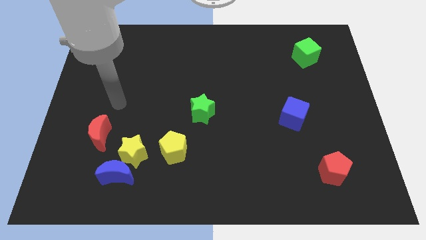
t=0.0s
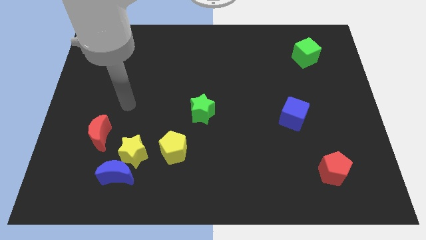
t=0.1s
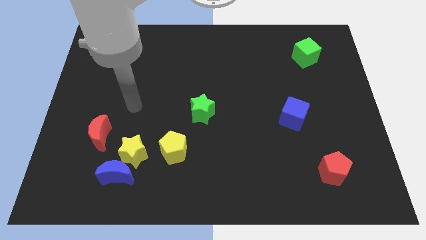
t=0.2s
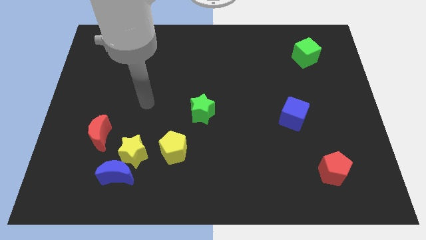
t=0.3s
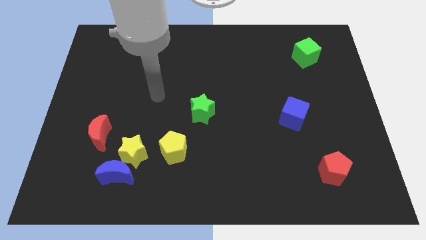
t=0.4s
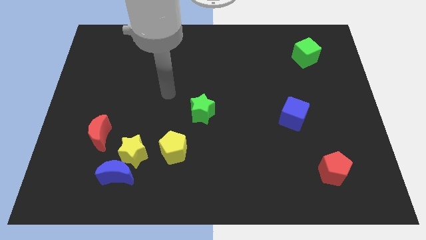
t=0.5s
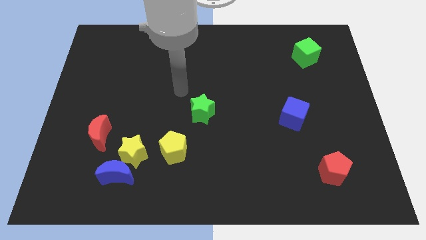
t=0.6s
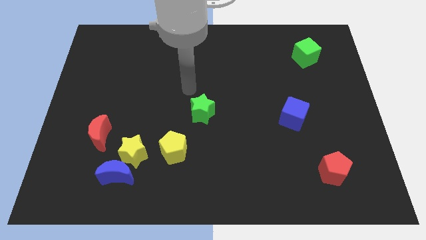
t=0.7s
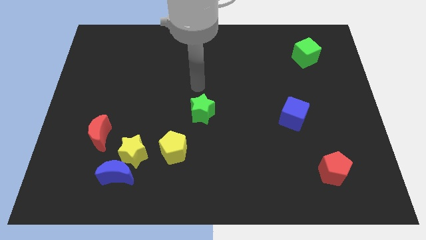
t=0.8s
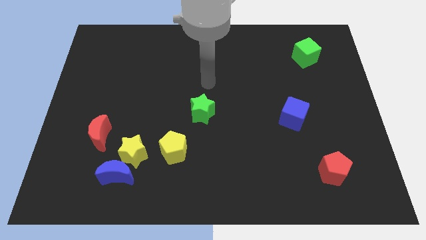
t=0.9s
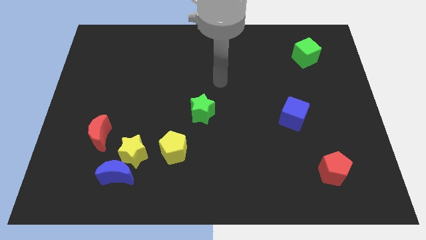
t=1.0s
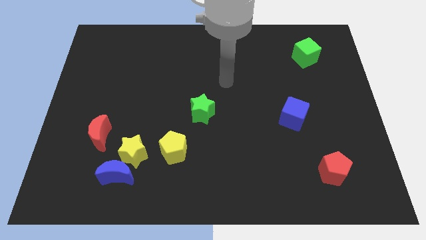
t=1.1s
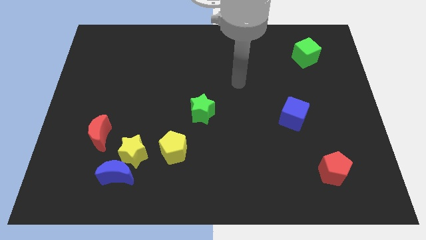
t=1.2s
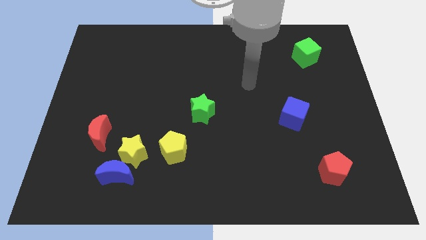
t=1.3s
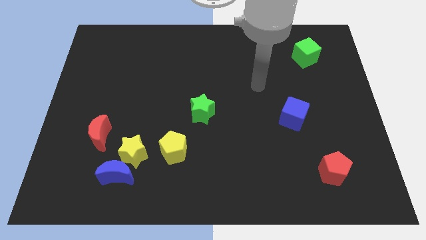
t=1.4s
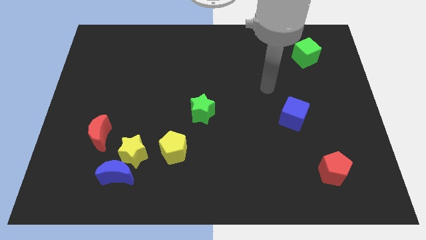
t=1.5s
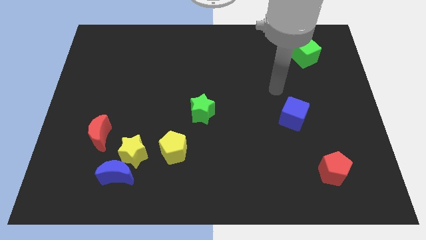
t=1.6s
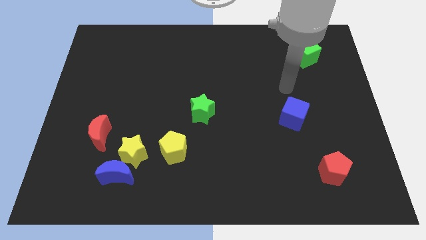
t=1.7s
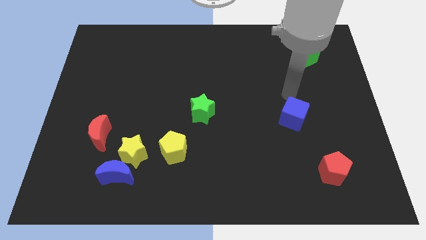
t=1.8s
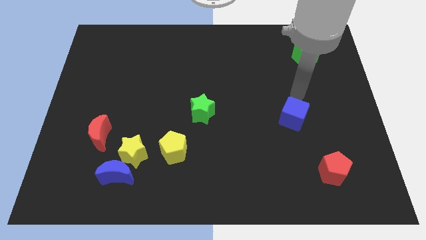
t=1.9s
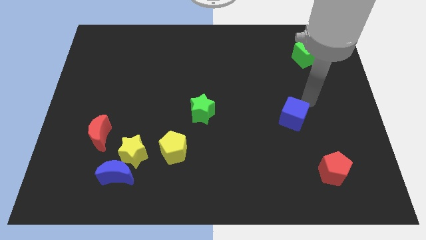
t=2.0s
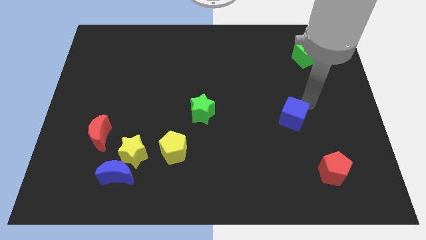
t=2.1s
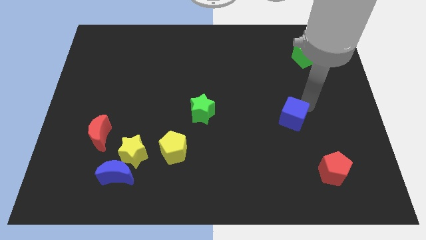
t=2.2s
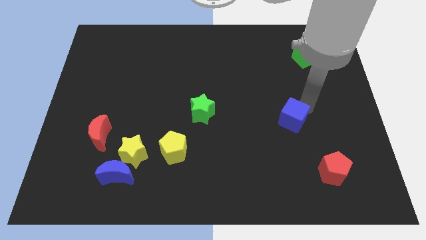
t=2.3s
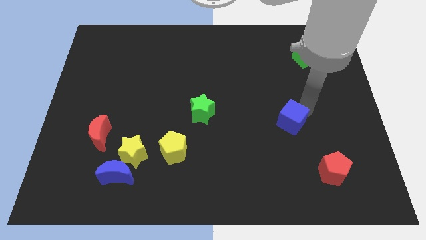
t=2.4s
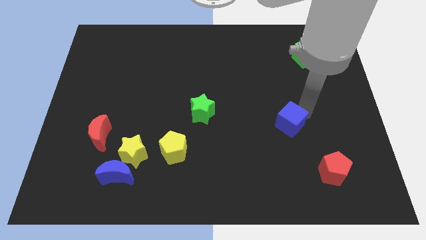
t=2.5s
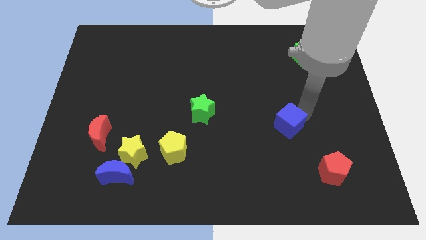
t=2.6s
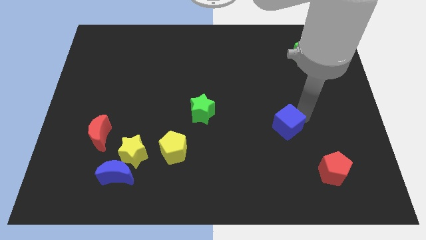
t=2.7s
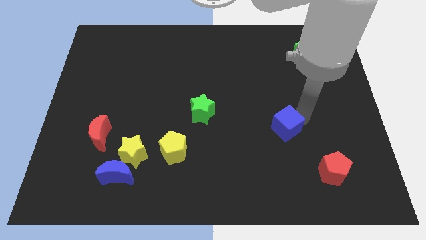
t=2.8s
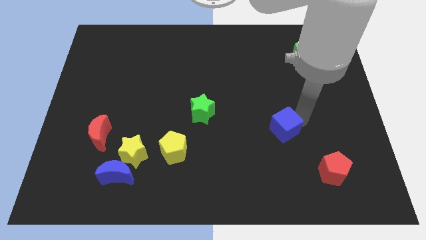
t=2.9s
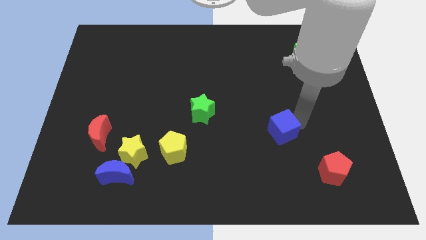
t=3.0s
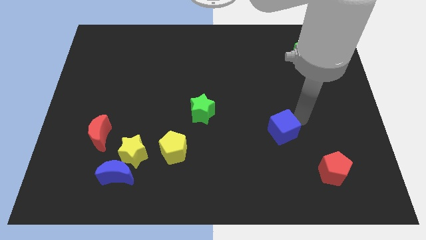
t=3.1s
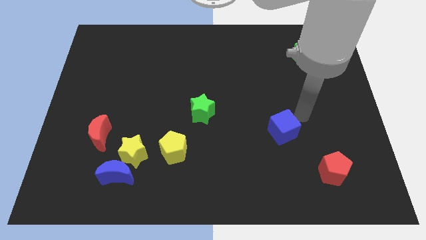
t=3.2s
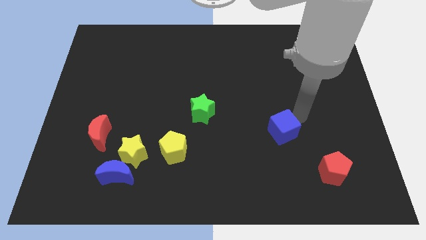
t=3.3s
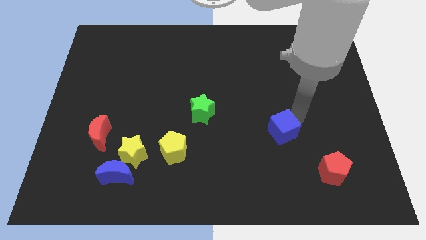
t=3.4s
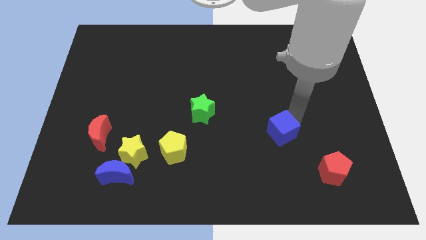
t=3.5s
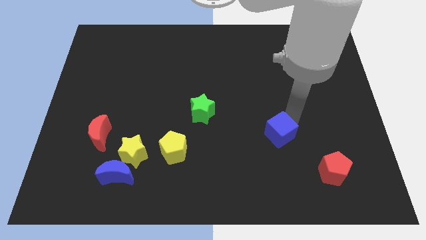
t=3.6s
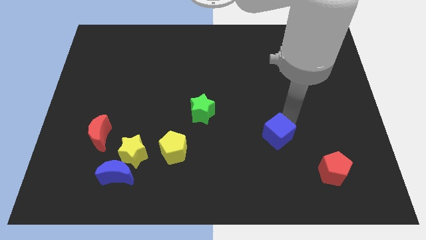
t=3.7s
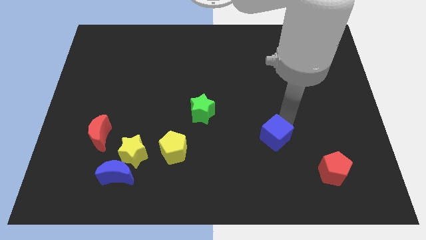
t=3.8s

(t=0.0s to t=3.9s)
slide the blue cube diagonally down and left somewhat

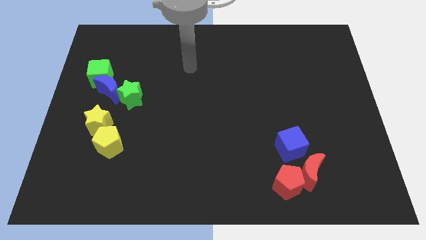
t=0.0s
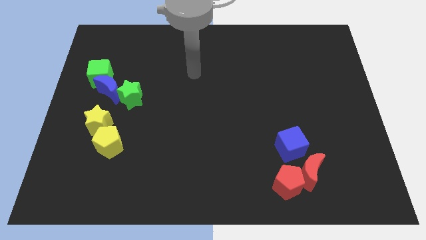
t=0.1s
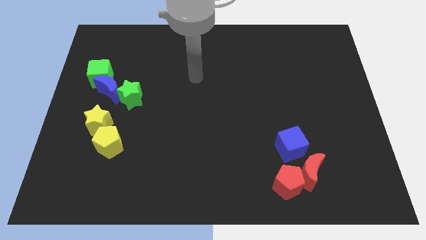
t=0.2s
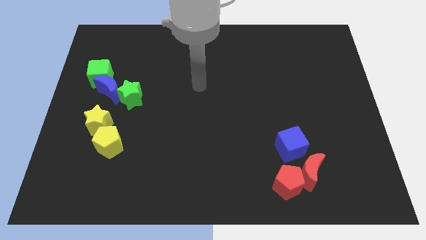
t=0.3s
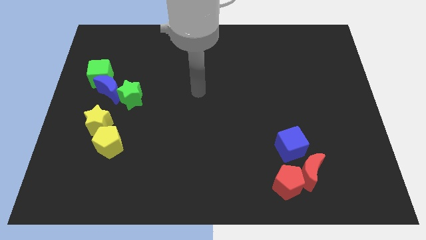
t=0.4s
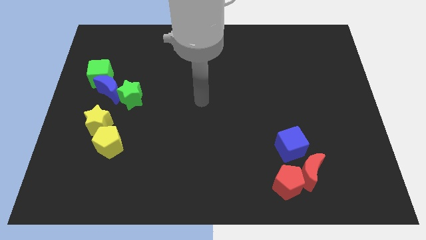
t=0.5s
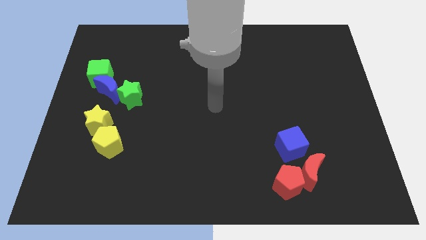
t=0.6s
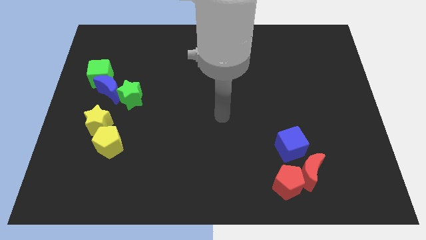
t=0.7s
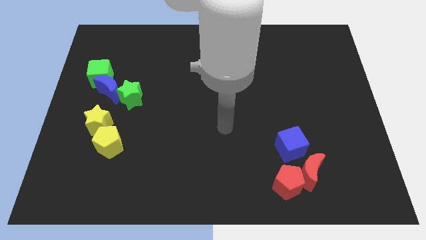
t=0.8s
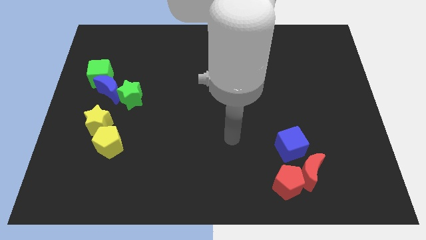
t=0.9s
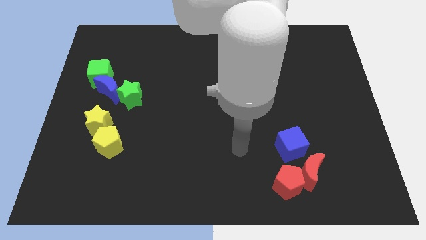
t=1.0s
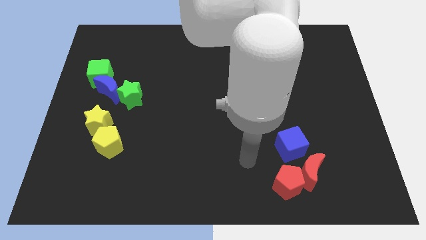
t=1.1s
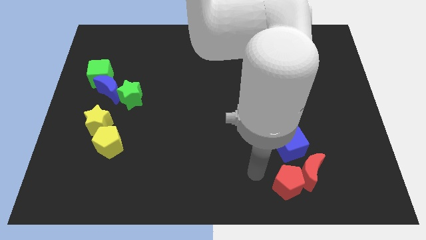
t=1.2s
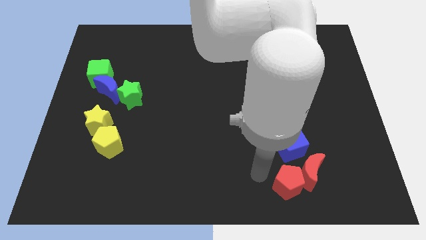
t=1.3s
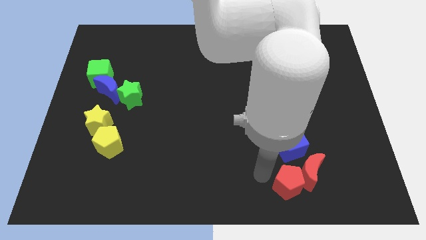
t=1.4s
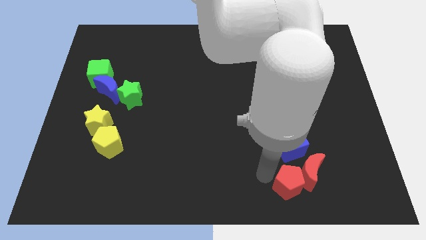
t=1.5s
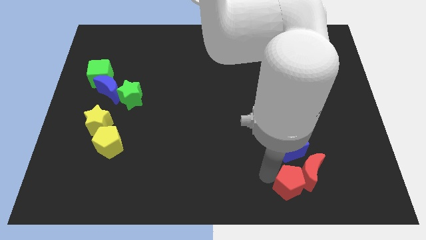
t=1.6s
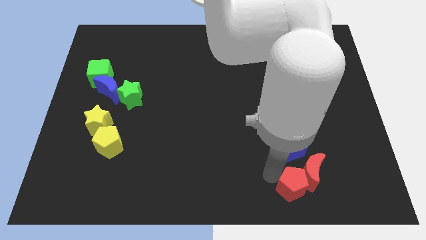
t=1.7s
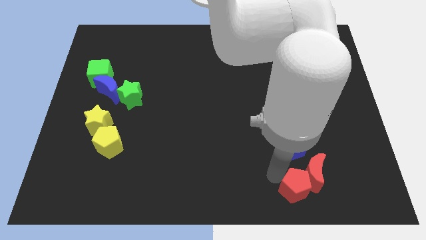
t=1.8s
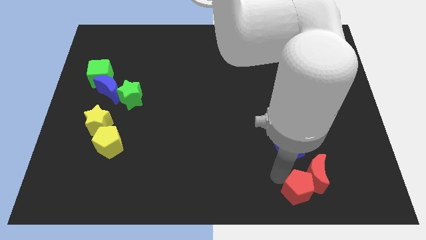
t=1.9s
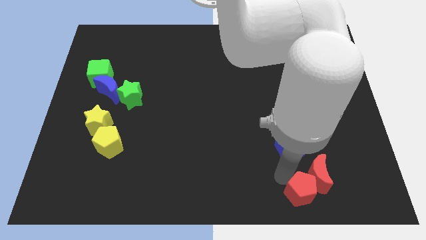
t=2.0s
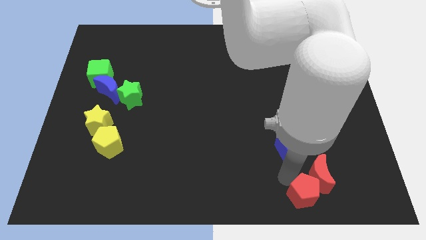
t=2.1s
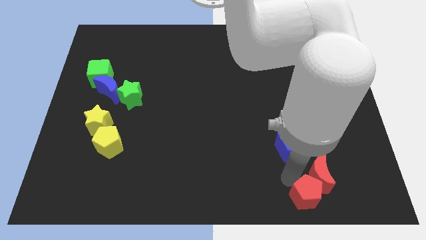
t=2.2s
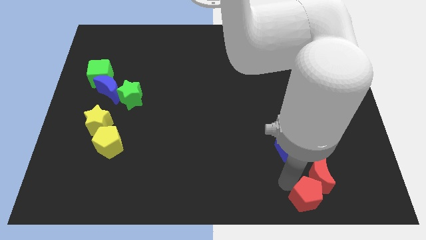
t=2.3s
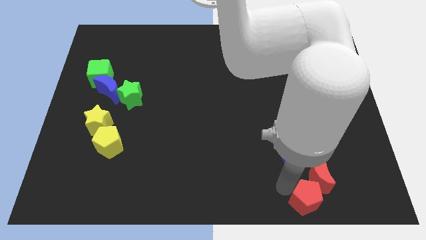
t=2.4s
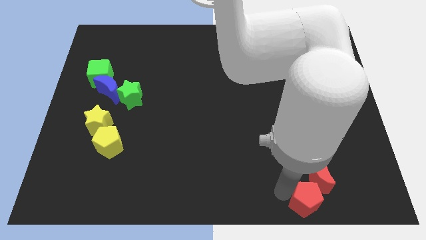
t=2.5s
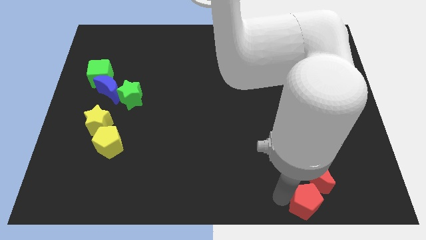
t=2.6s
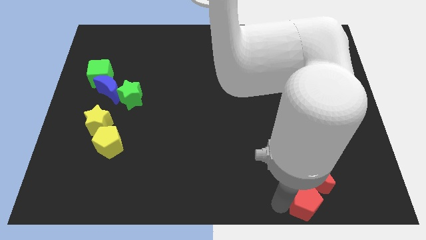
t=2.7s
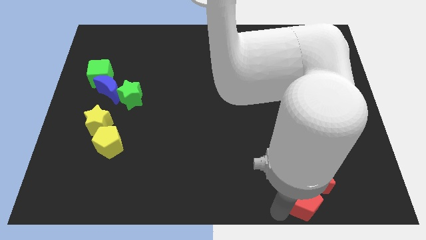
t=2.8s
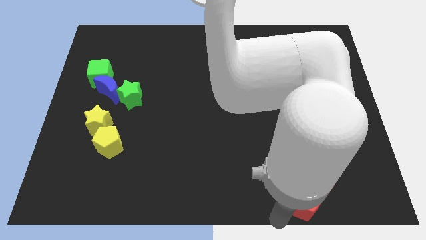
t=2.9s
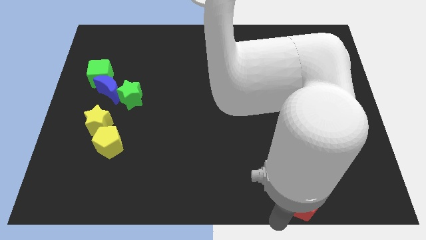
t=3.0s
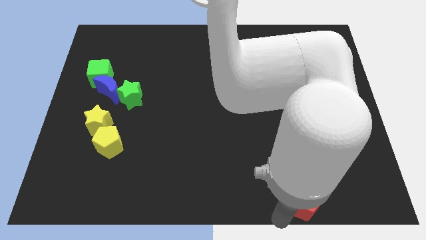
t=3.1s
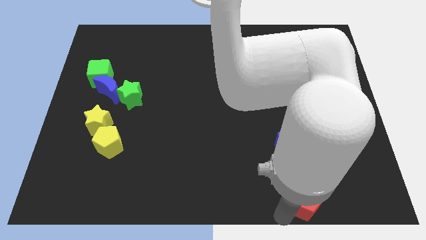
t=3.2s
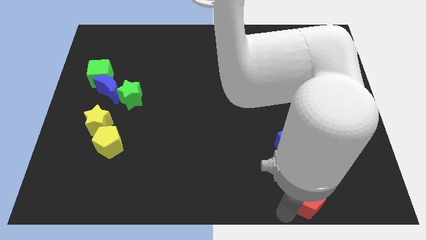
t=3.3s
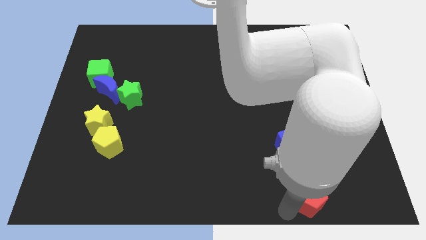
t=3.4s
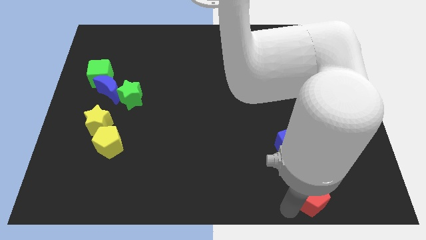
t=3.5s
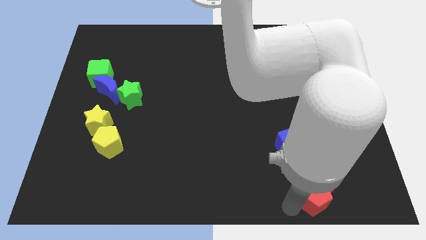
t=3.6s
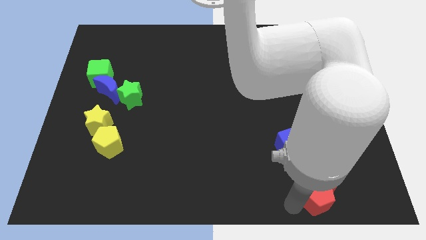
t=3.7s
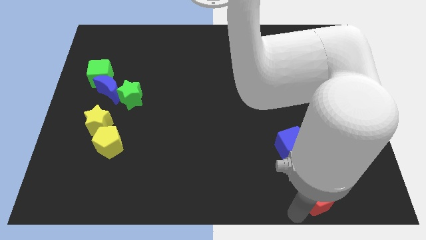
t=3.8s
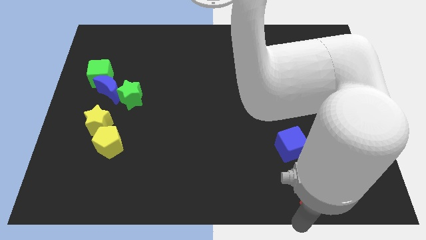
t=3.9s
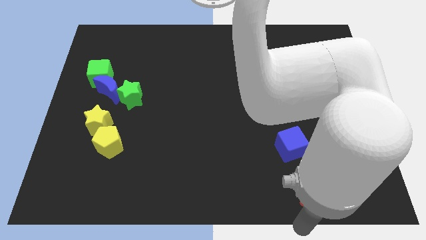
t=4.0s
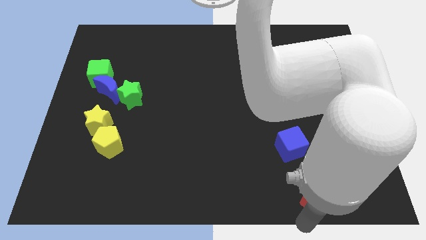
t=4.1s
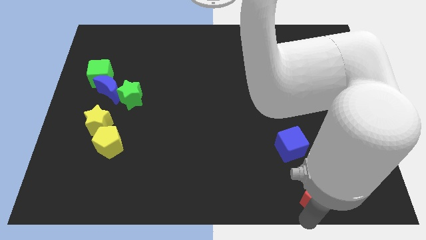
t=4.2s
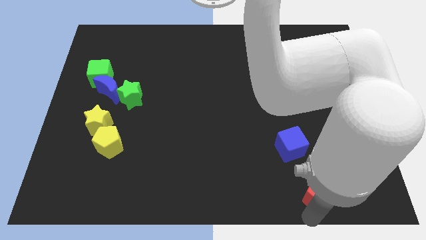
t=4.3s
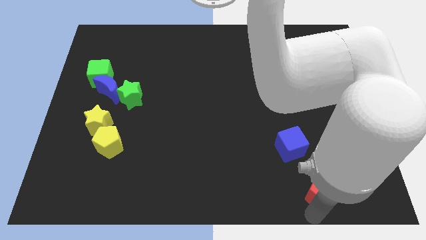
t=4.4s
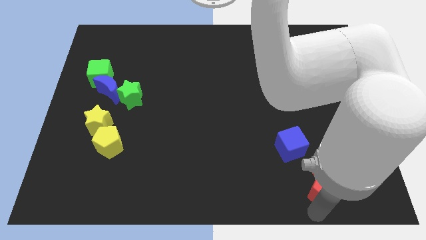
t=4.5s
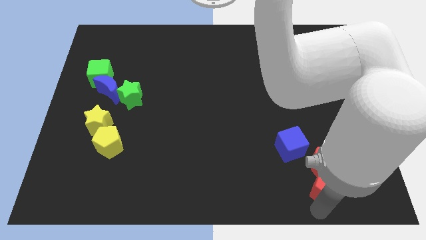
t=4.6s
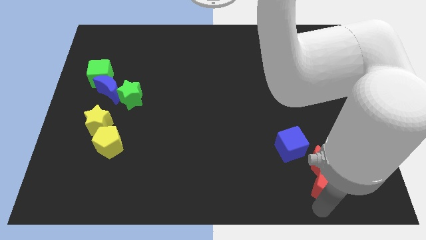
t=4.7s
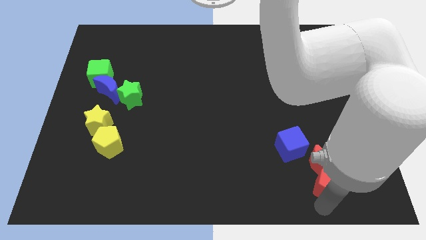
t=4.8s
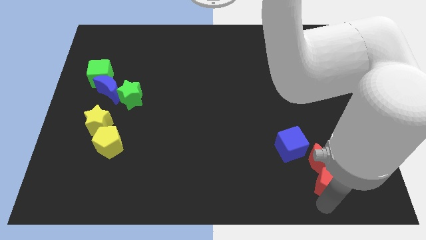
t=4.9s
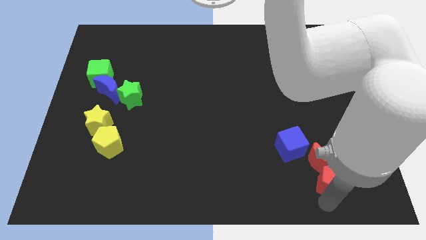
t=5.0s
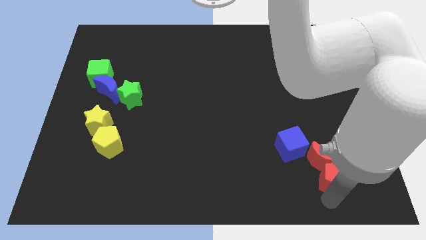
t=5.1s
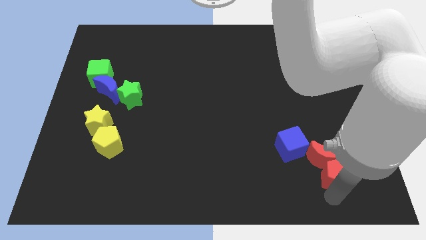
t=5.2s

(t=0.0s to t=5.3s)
push the red pentagon up and then to the right slightly
